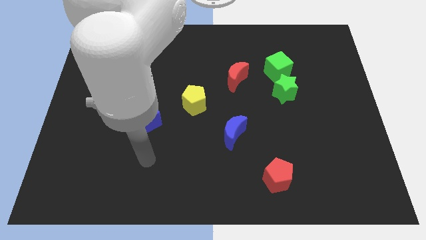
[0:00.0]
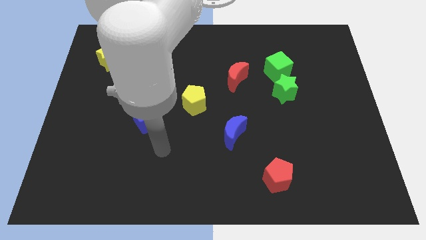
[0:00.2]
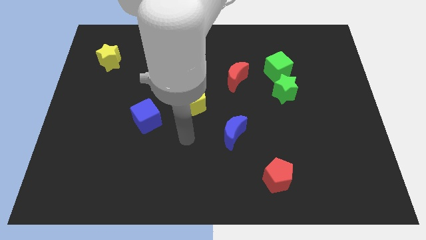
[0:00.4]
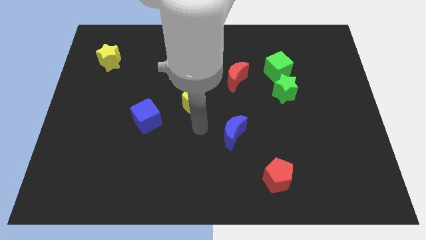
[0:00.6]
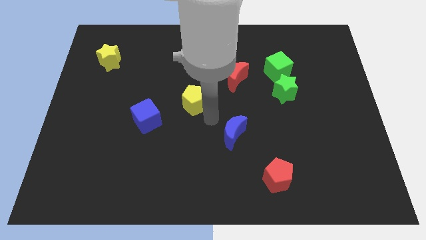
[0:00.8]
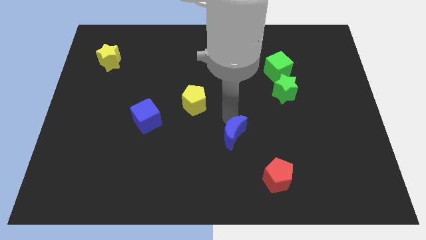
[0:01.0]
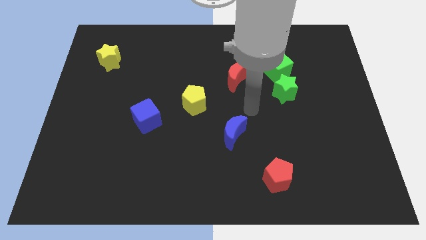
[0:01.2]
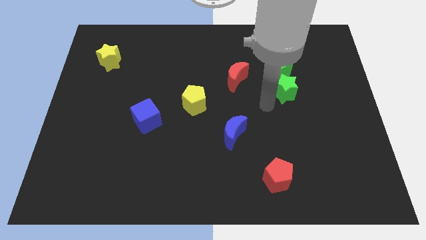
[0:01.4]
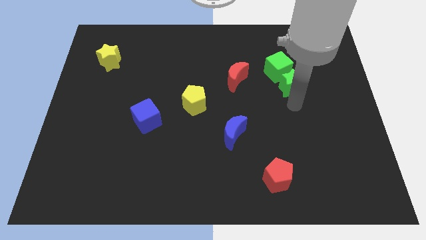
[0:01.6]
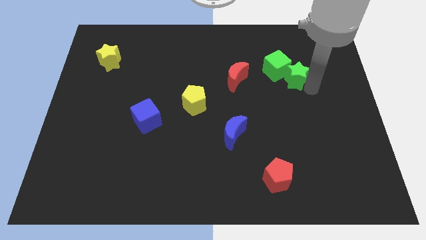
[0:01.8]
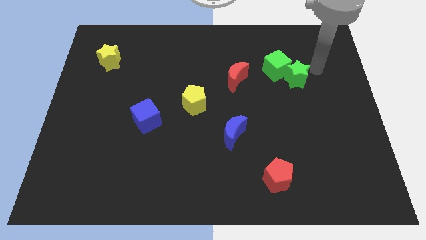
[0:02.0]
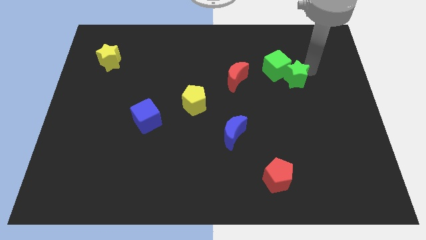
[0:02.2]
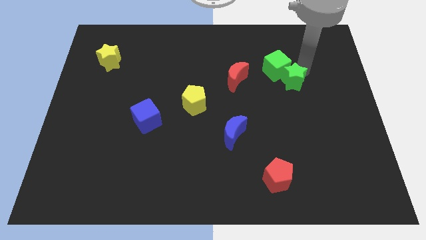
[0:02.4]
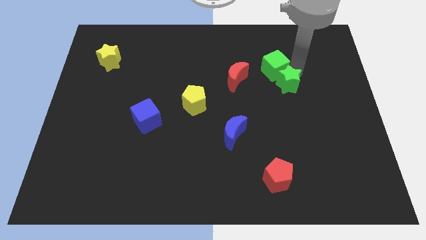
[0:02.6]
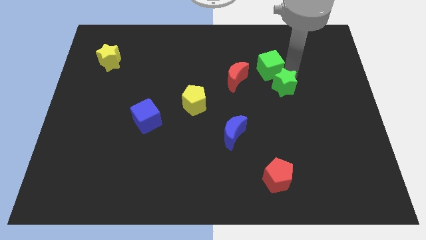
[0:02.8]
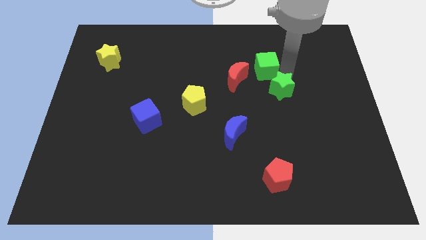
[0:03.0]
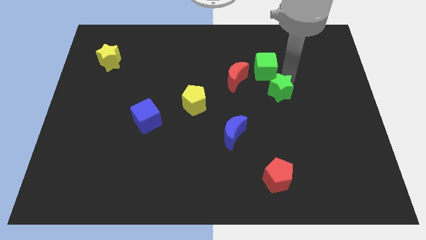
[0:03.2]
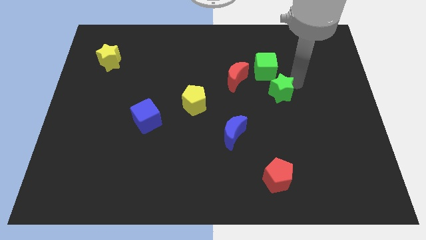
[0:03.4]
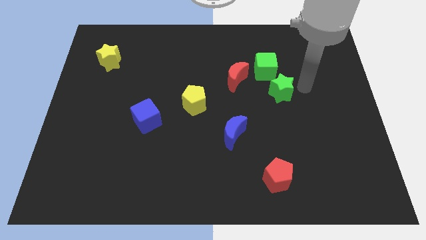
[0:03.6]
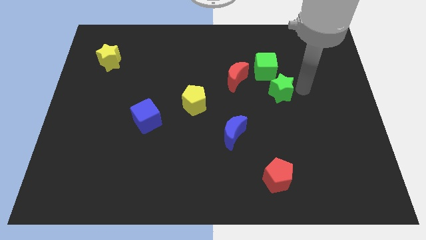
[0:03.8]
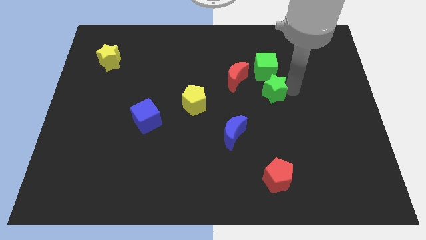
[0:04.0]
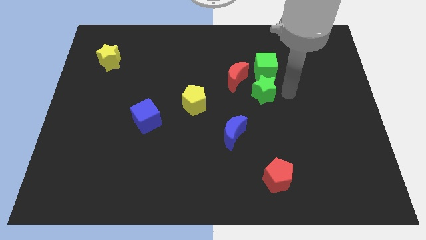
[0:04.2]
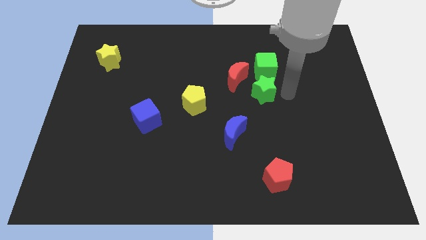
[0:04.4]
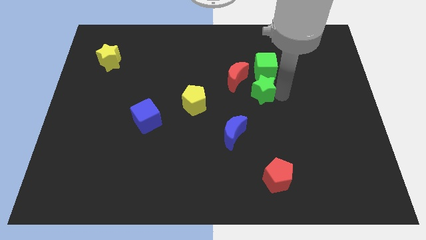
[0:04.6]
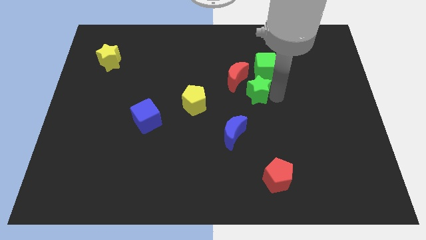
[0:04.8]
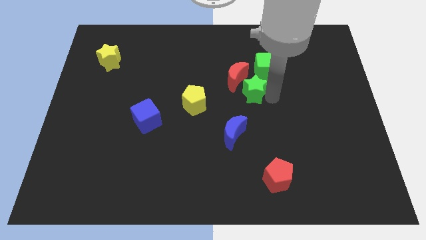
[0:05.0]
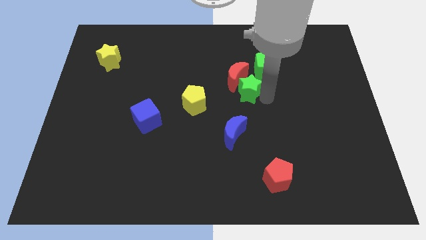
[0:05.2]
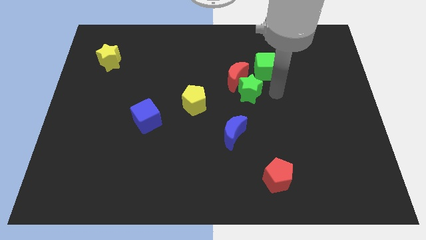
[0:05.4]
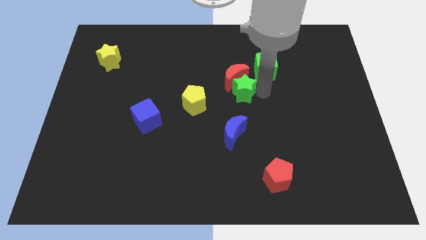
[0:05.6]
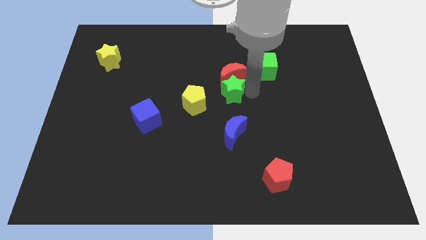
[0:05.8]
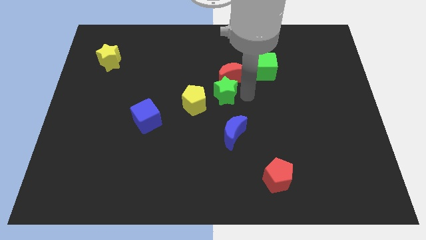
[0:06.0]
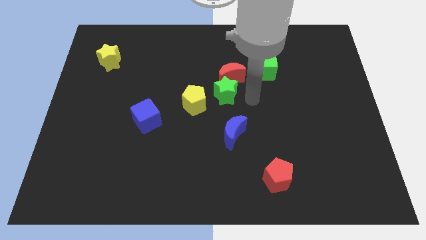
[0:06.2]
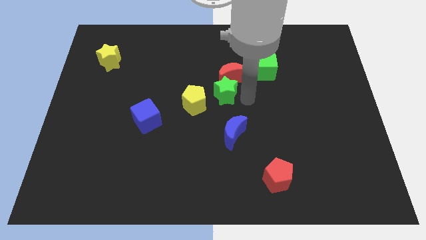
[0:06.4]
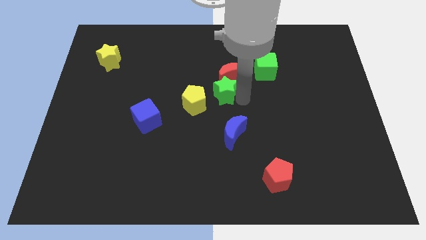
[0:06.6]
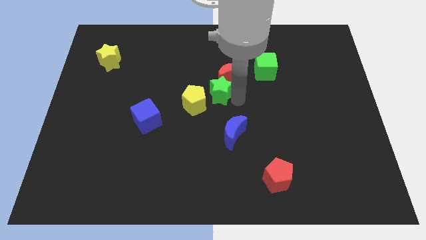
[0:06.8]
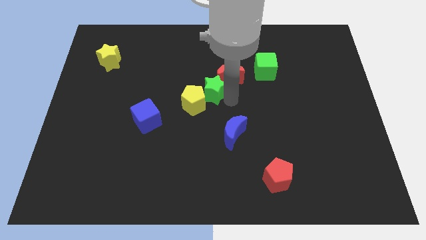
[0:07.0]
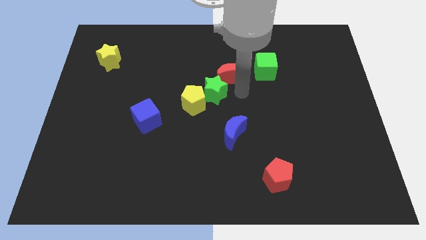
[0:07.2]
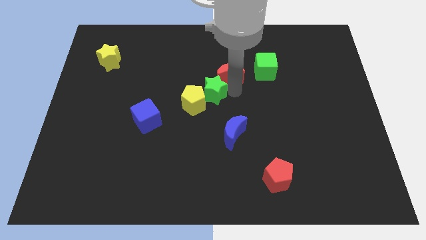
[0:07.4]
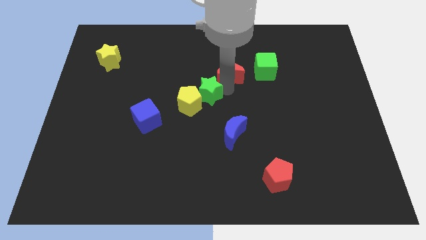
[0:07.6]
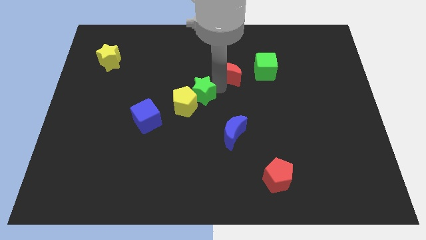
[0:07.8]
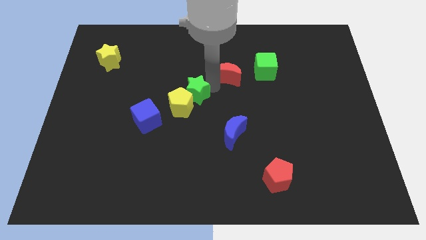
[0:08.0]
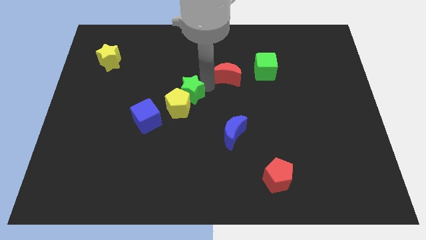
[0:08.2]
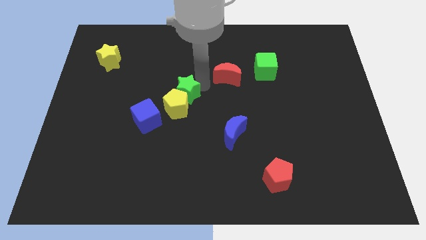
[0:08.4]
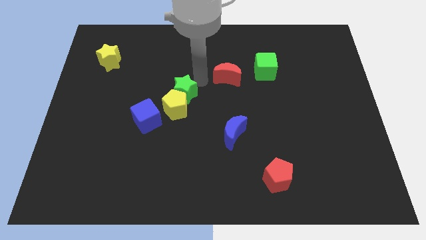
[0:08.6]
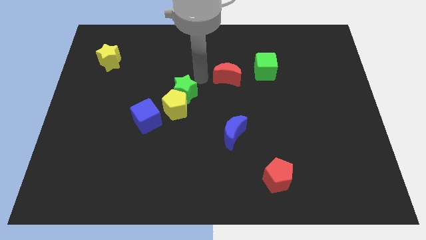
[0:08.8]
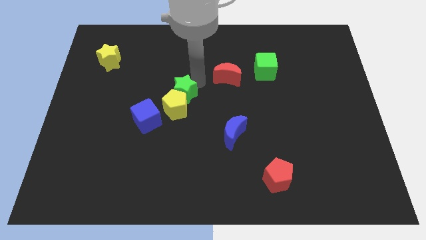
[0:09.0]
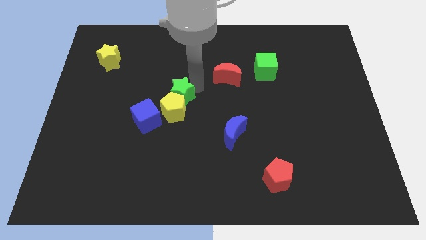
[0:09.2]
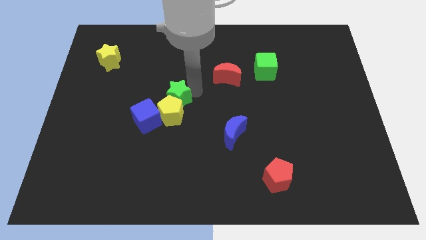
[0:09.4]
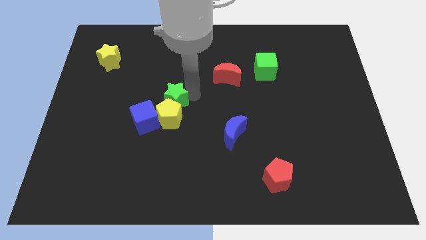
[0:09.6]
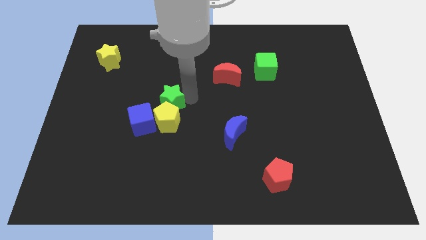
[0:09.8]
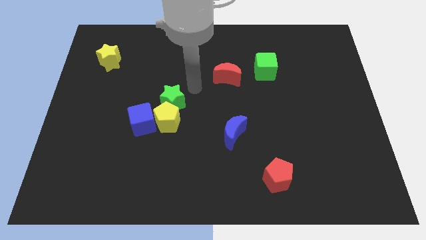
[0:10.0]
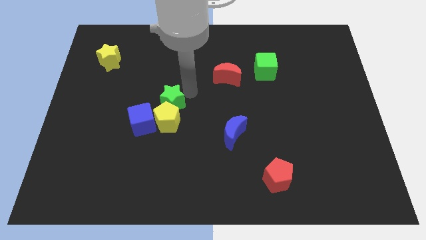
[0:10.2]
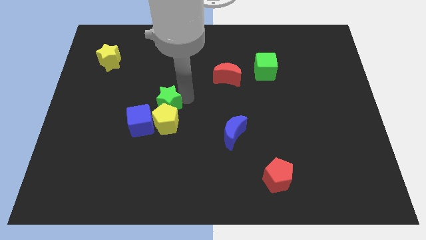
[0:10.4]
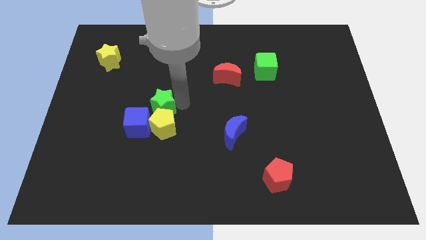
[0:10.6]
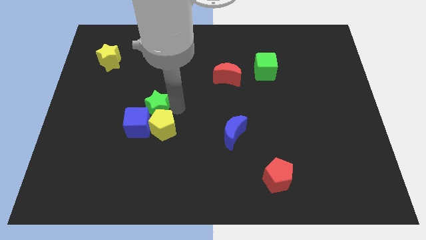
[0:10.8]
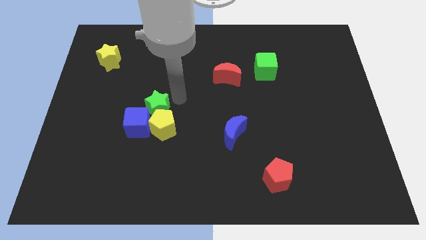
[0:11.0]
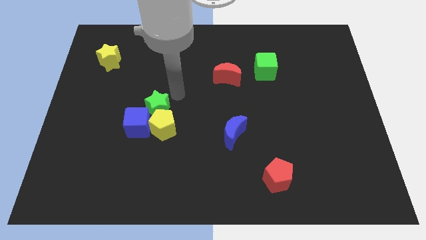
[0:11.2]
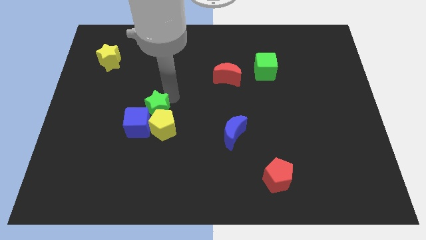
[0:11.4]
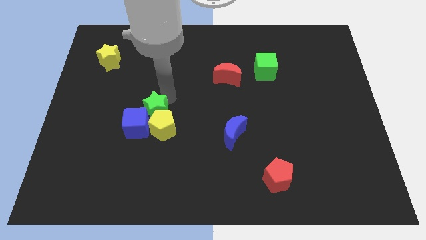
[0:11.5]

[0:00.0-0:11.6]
move the green star next to the blue cube

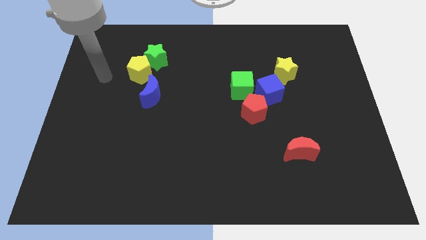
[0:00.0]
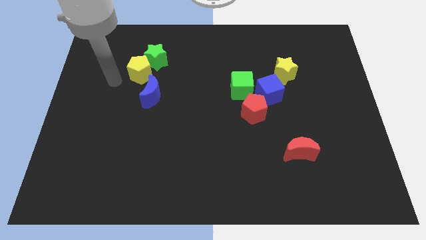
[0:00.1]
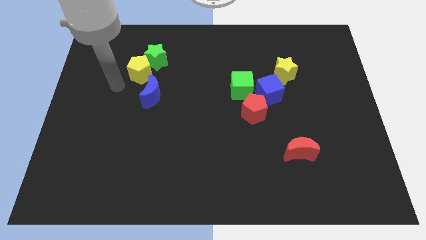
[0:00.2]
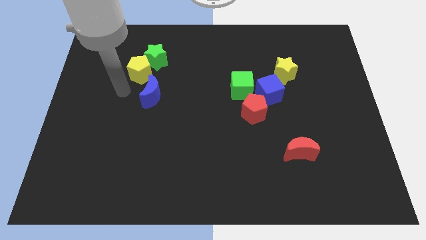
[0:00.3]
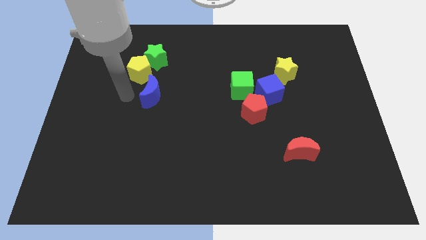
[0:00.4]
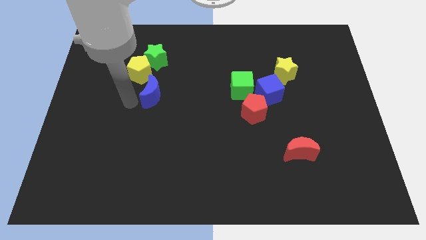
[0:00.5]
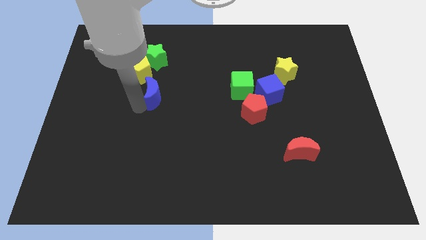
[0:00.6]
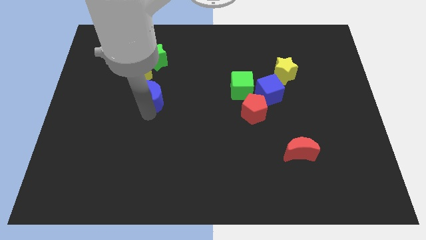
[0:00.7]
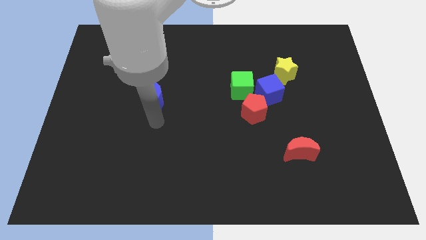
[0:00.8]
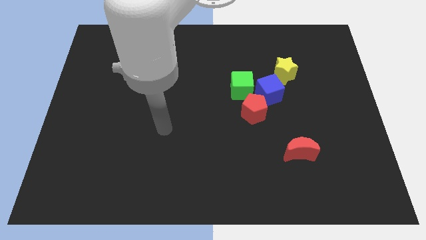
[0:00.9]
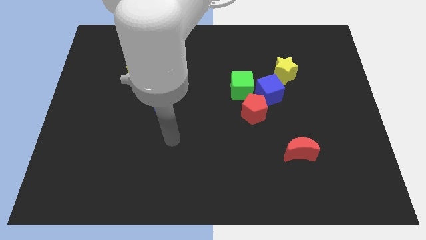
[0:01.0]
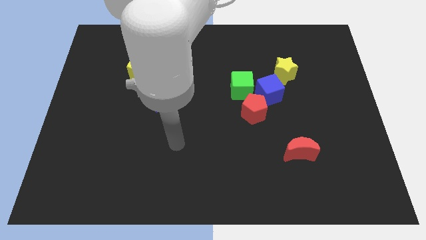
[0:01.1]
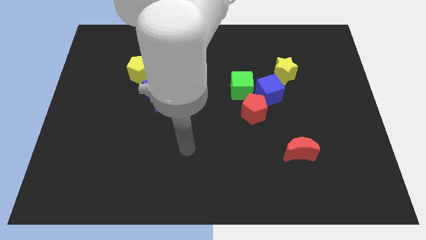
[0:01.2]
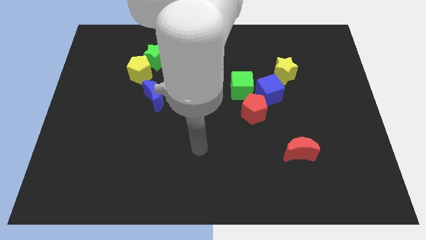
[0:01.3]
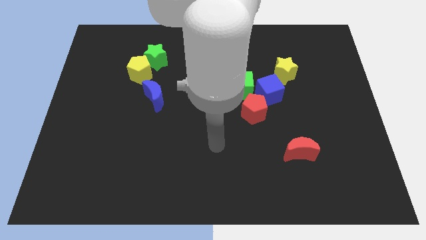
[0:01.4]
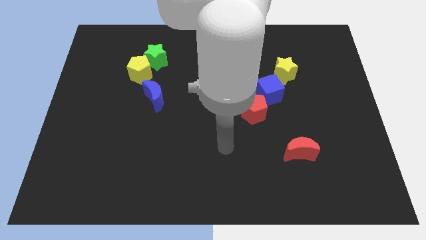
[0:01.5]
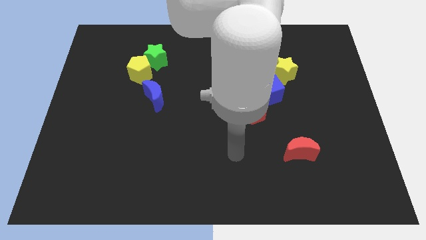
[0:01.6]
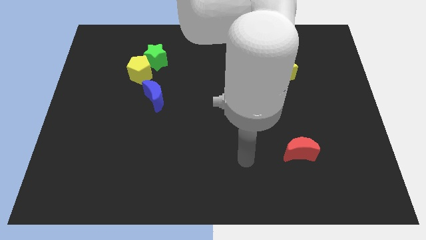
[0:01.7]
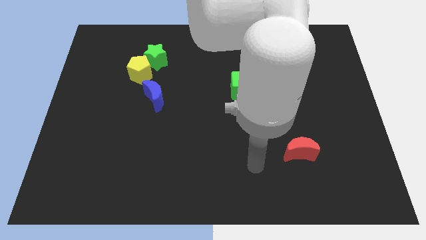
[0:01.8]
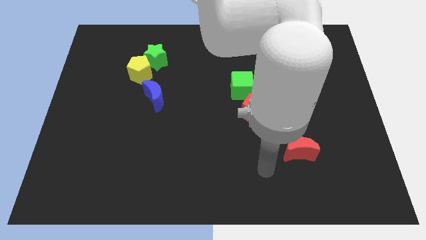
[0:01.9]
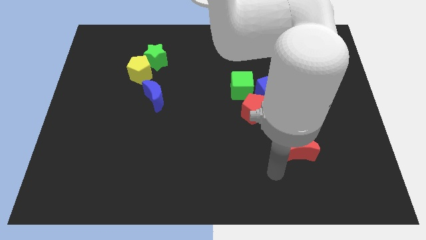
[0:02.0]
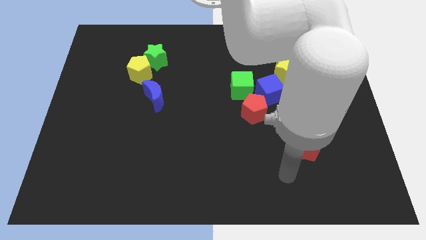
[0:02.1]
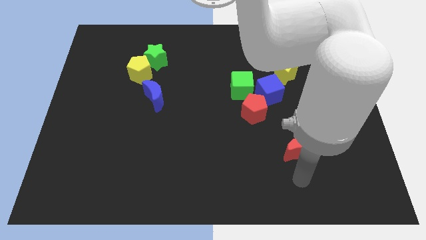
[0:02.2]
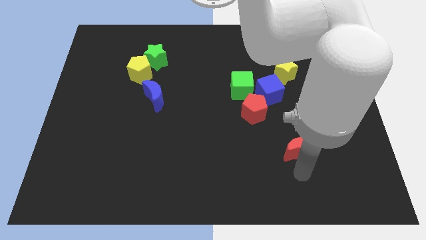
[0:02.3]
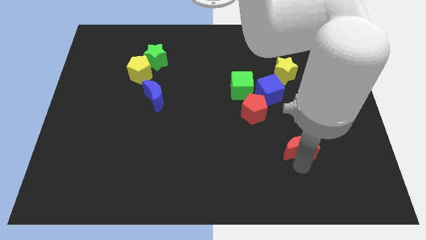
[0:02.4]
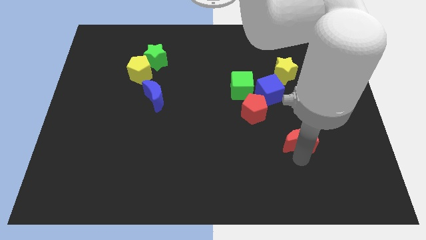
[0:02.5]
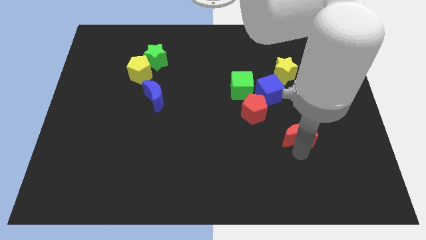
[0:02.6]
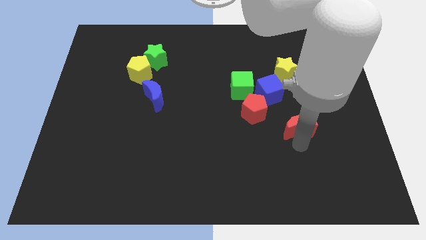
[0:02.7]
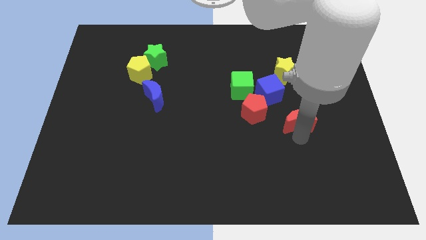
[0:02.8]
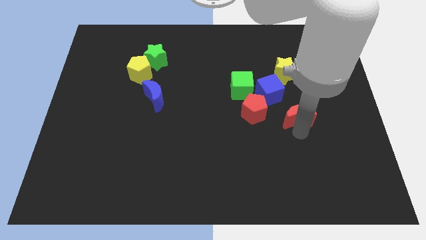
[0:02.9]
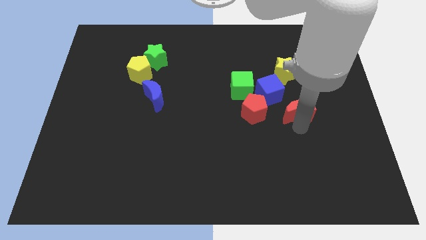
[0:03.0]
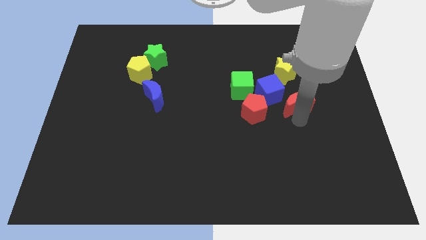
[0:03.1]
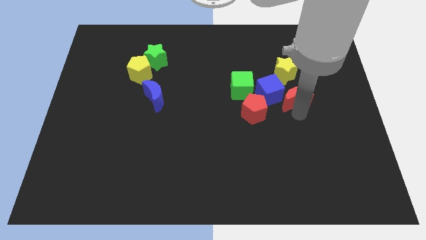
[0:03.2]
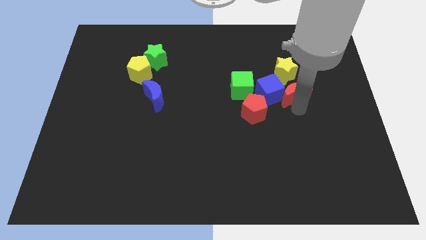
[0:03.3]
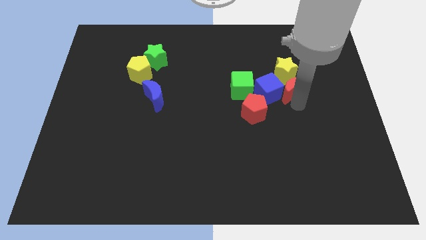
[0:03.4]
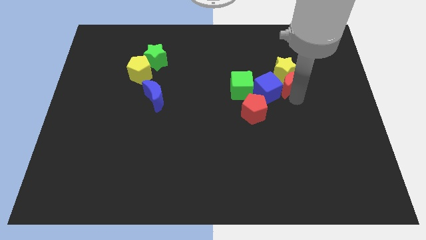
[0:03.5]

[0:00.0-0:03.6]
put the red moon towards the yellow star
